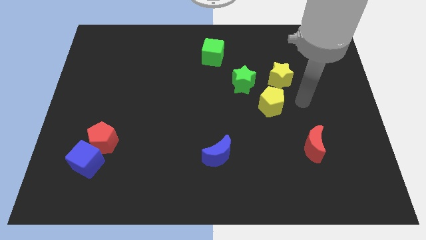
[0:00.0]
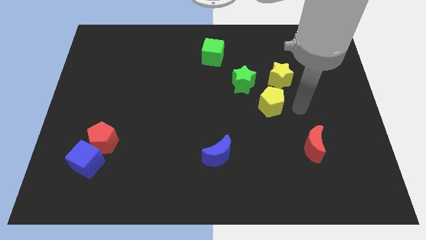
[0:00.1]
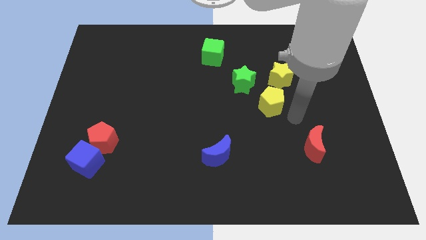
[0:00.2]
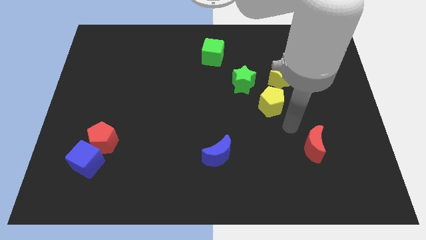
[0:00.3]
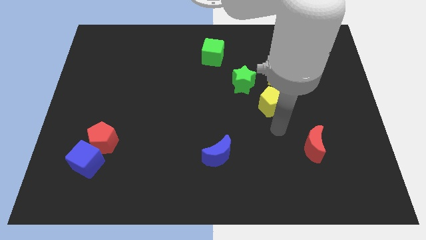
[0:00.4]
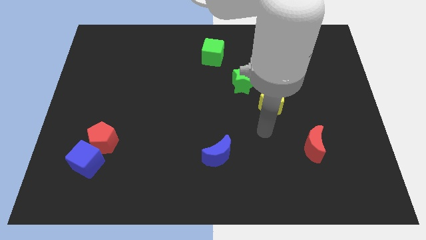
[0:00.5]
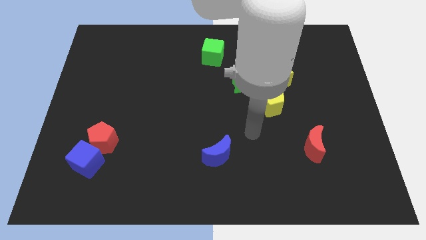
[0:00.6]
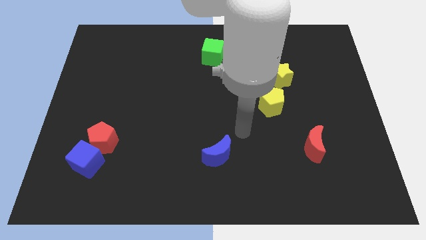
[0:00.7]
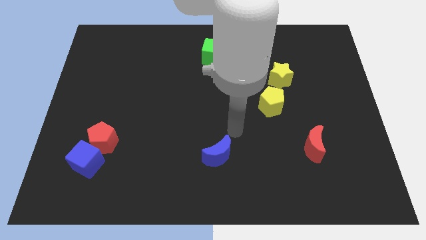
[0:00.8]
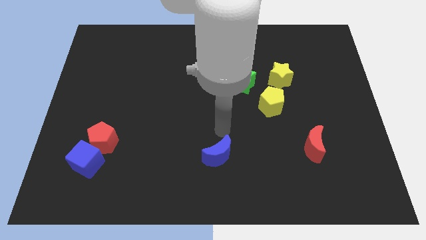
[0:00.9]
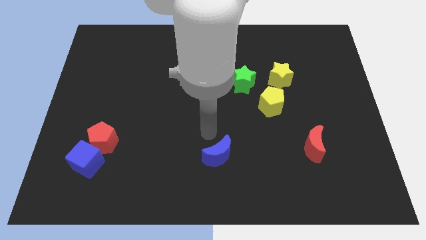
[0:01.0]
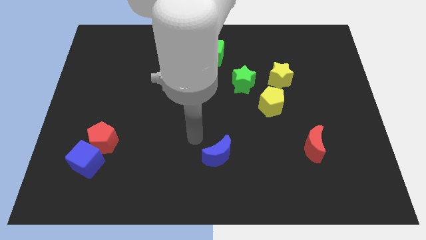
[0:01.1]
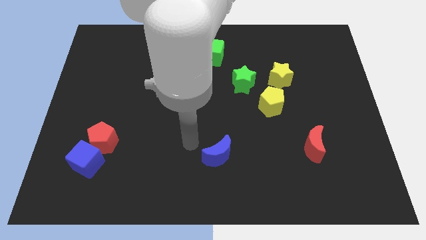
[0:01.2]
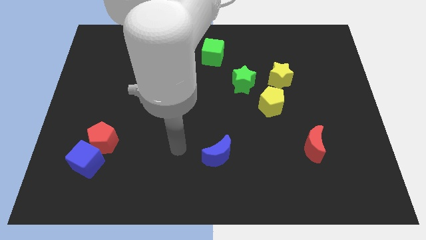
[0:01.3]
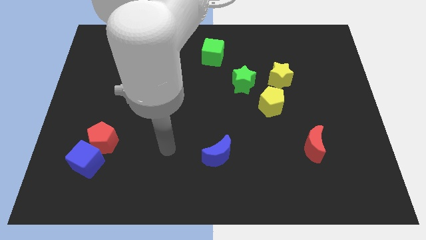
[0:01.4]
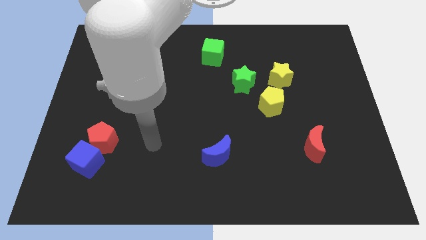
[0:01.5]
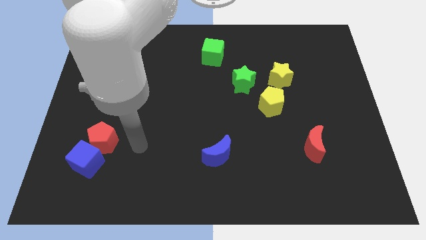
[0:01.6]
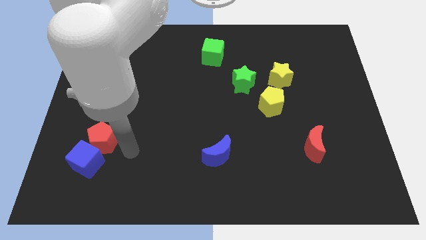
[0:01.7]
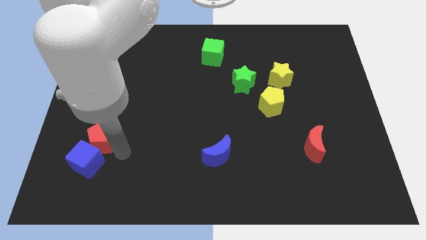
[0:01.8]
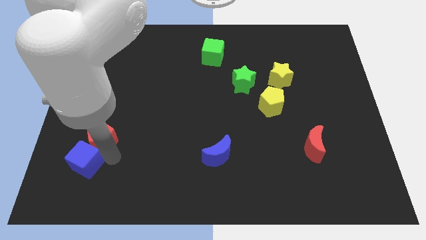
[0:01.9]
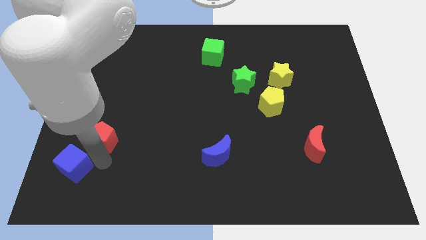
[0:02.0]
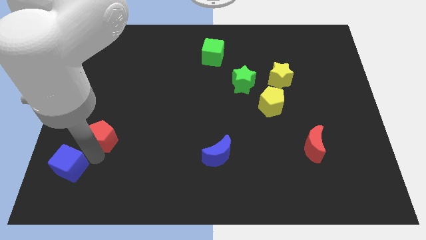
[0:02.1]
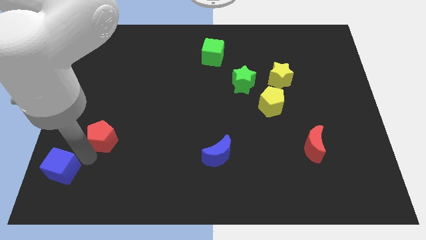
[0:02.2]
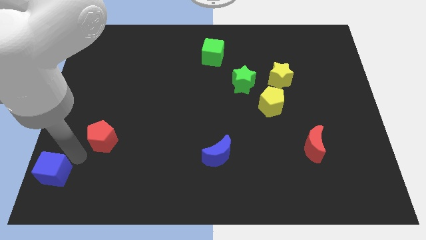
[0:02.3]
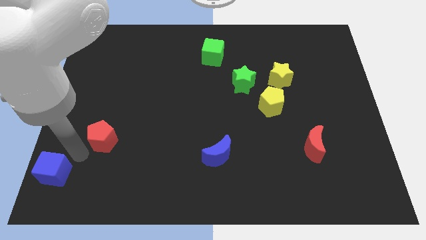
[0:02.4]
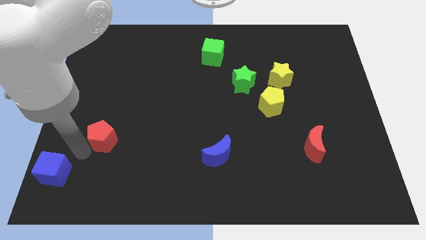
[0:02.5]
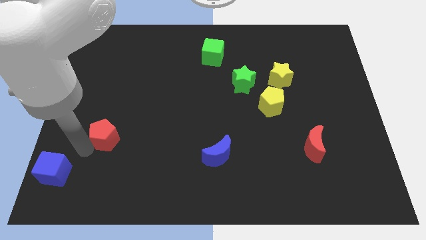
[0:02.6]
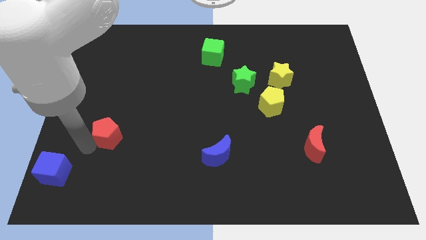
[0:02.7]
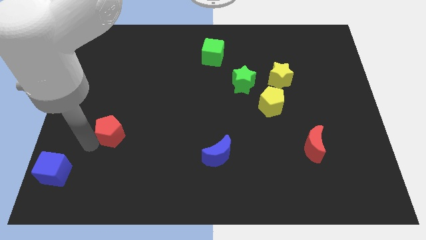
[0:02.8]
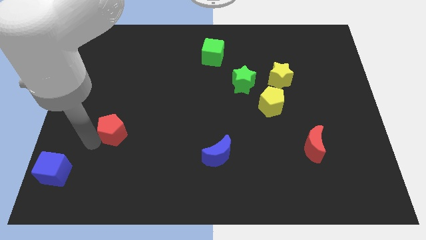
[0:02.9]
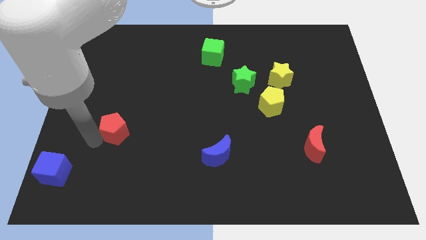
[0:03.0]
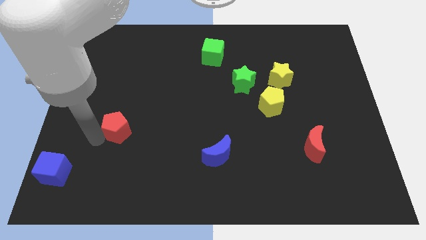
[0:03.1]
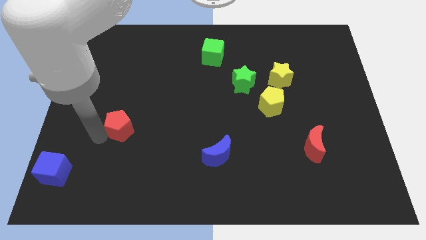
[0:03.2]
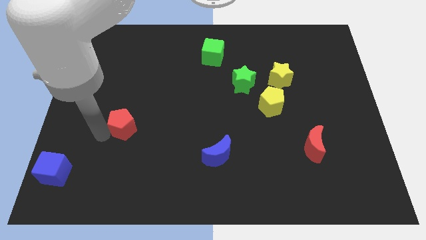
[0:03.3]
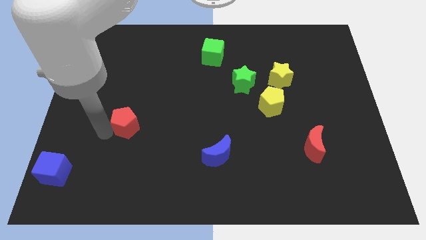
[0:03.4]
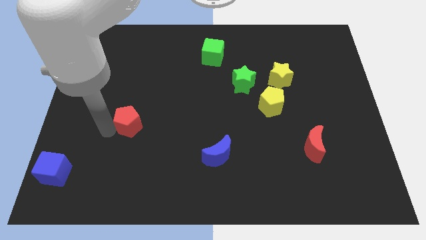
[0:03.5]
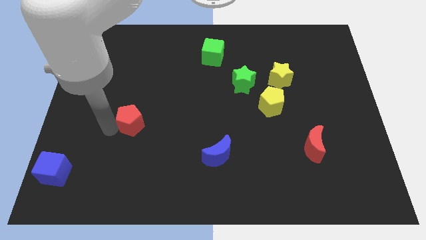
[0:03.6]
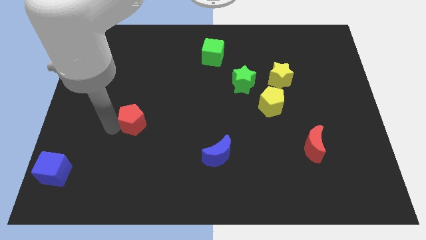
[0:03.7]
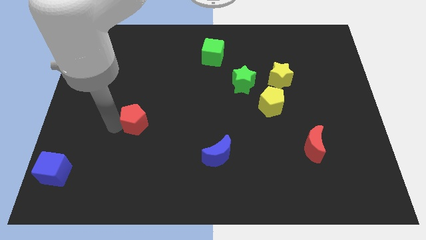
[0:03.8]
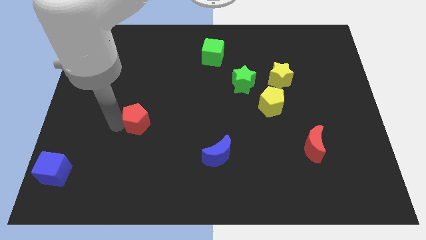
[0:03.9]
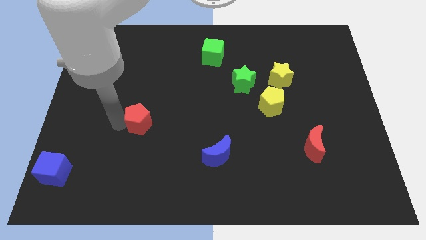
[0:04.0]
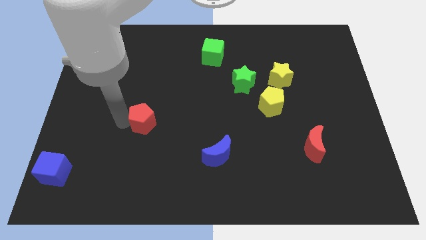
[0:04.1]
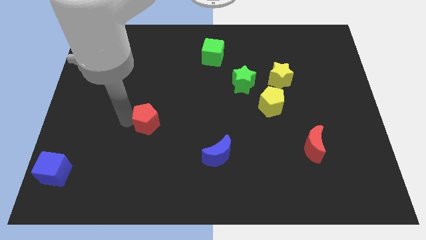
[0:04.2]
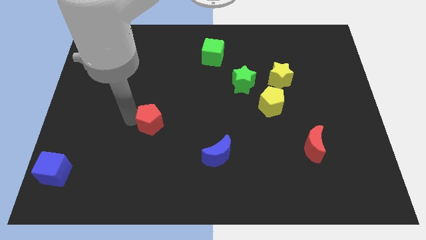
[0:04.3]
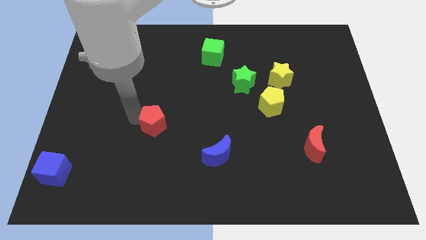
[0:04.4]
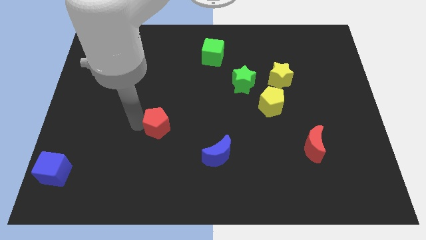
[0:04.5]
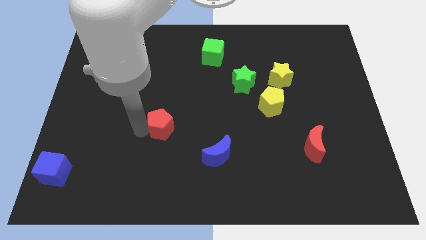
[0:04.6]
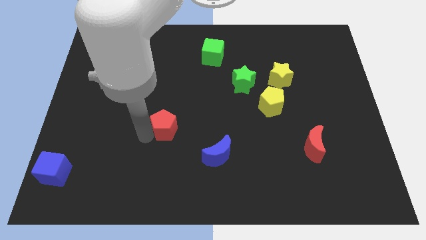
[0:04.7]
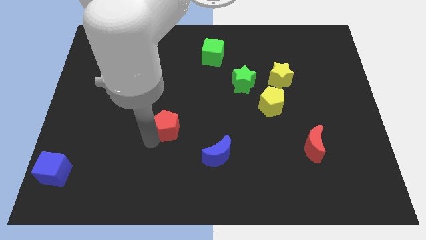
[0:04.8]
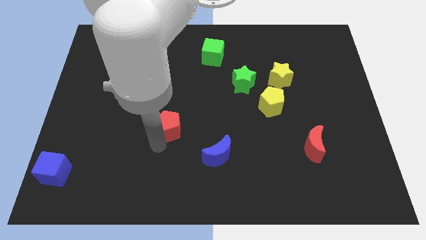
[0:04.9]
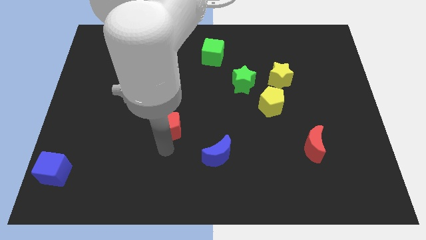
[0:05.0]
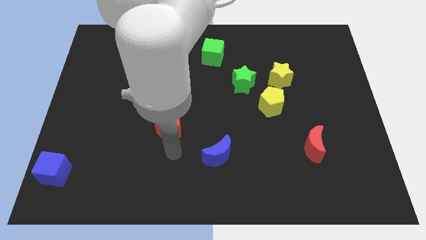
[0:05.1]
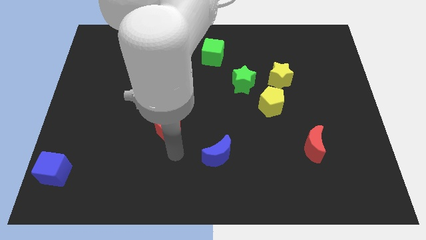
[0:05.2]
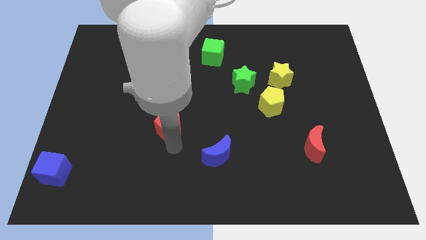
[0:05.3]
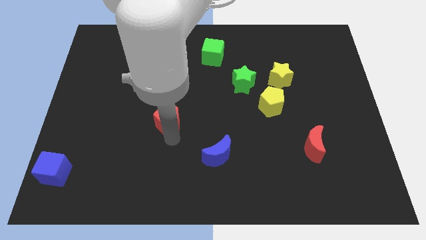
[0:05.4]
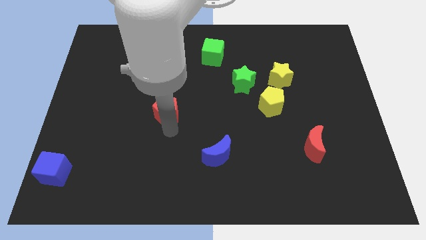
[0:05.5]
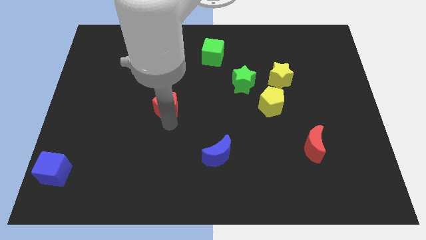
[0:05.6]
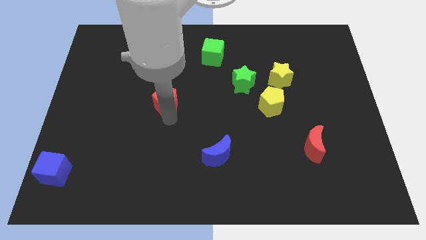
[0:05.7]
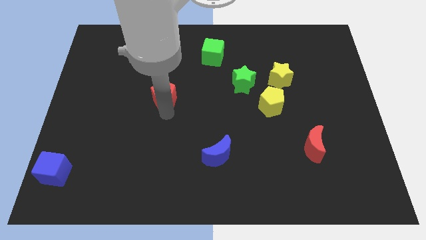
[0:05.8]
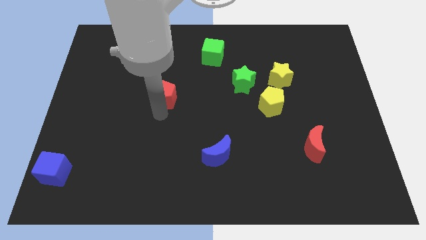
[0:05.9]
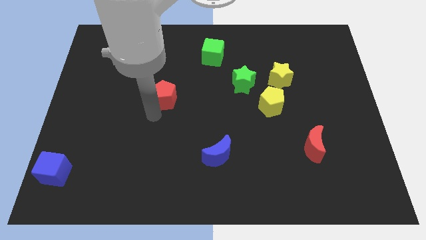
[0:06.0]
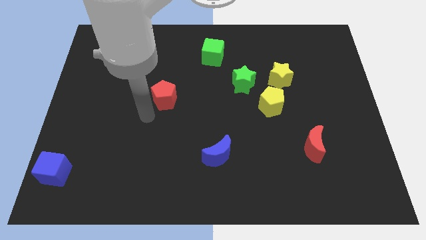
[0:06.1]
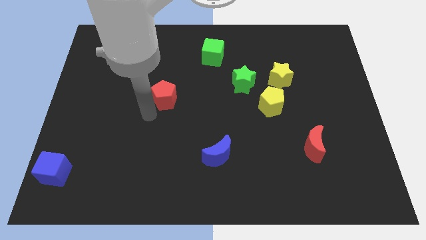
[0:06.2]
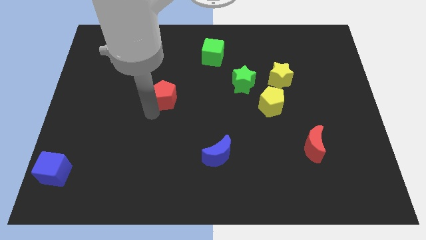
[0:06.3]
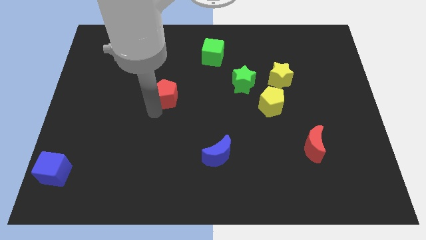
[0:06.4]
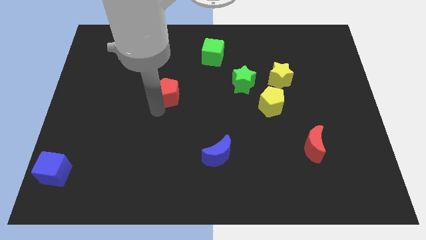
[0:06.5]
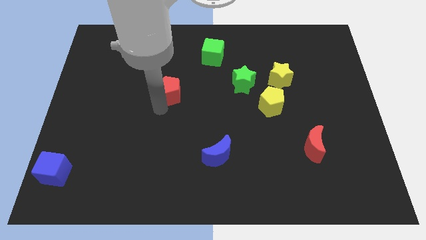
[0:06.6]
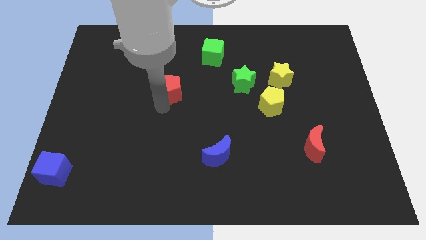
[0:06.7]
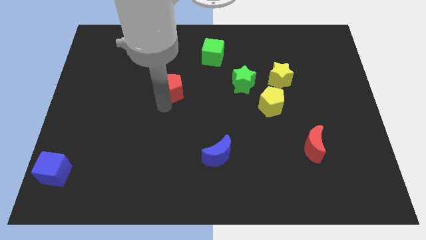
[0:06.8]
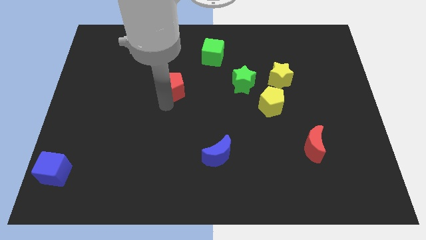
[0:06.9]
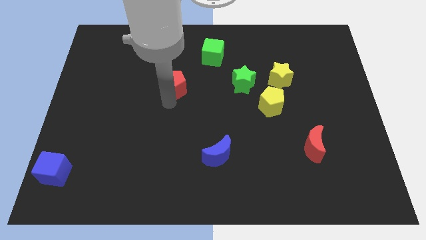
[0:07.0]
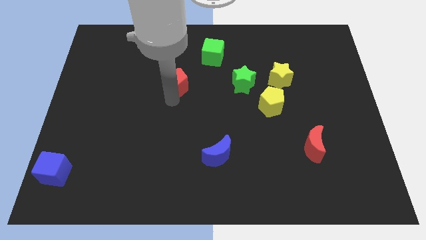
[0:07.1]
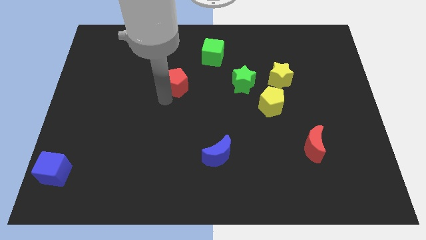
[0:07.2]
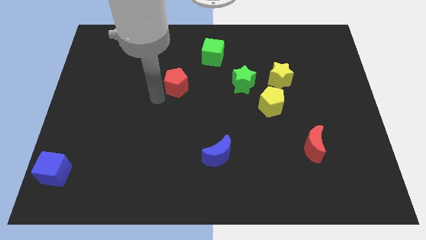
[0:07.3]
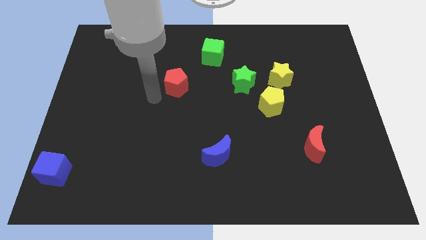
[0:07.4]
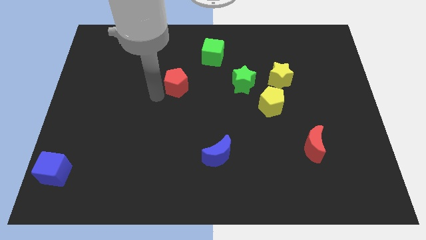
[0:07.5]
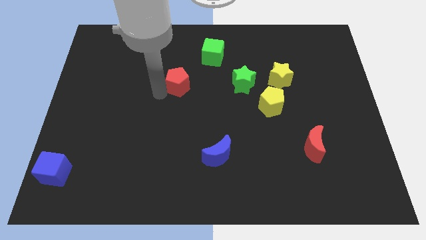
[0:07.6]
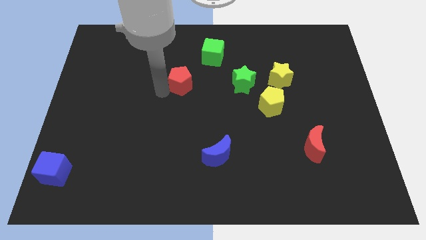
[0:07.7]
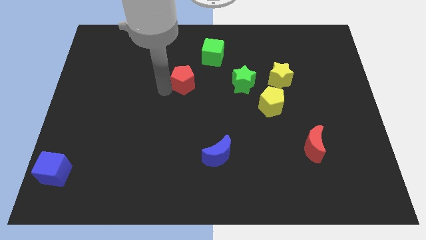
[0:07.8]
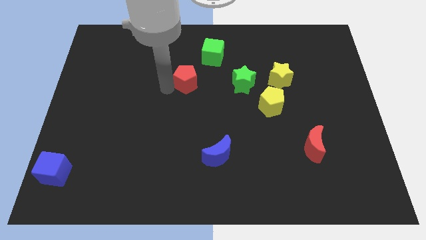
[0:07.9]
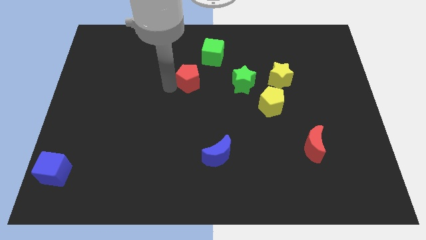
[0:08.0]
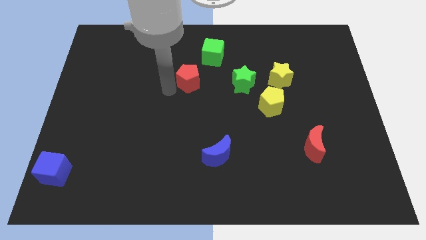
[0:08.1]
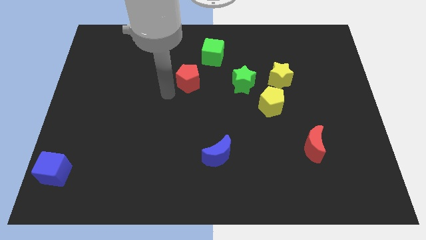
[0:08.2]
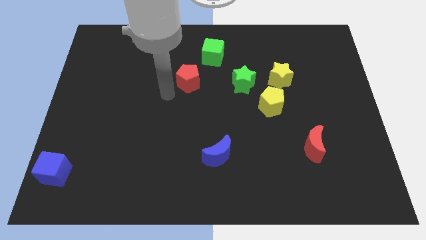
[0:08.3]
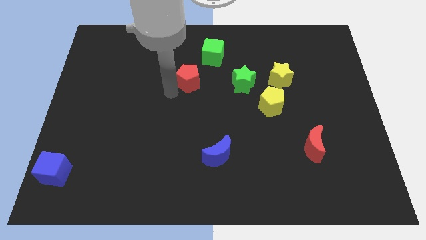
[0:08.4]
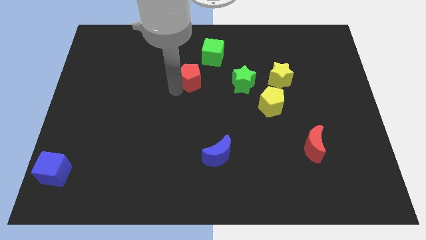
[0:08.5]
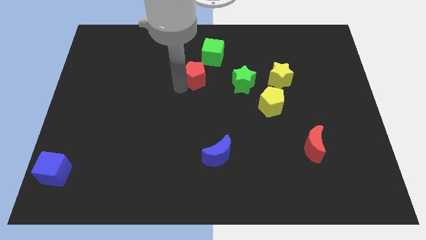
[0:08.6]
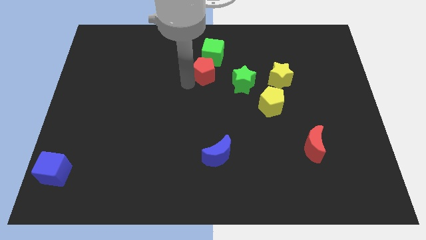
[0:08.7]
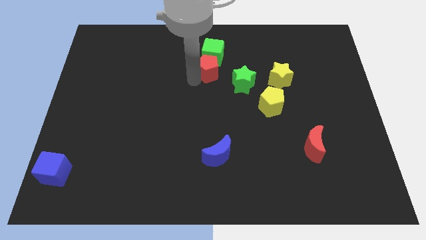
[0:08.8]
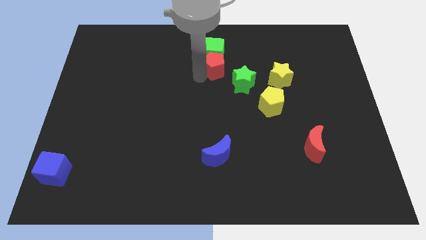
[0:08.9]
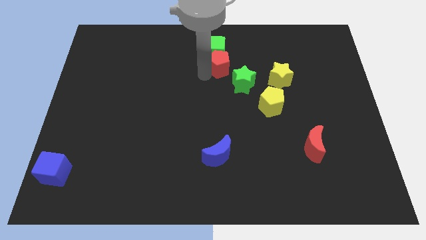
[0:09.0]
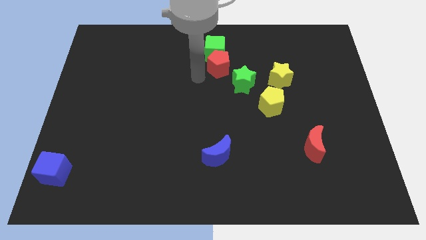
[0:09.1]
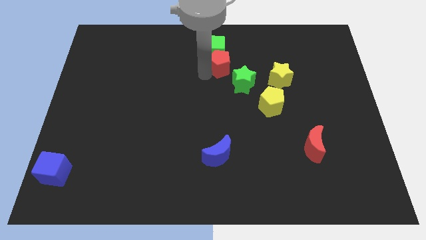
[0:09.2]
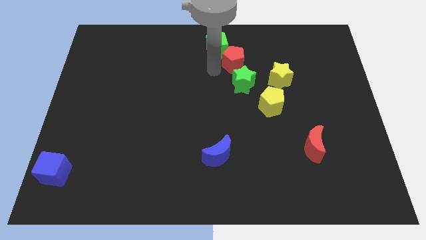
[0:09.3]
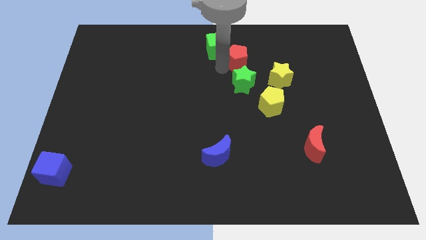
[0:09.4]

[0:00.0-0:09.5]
slide the red pentagon just right of the green cube
